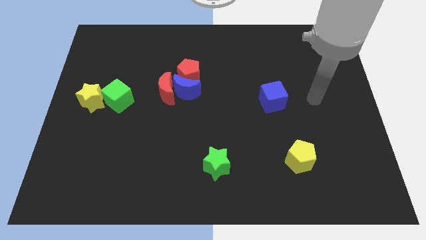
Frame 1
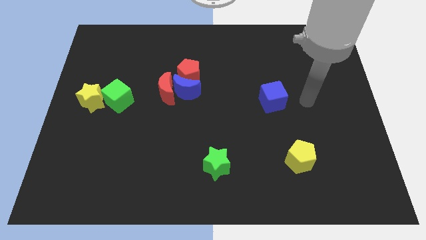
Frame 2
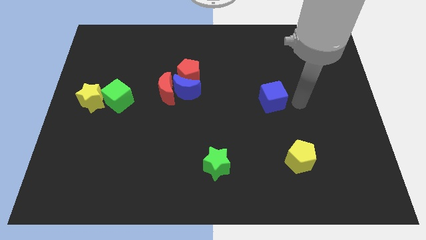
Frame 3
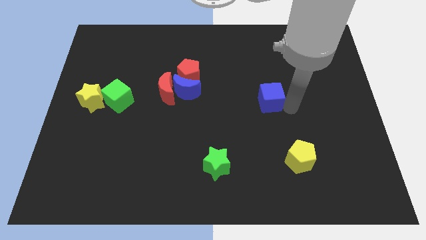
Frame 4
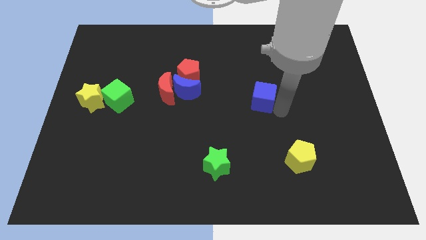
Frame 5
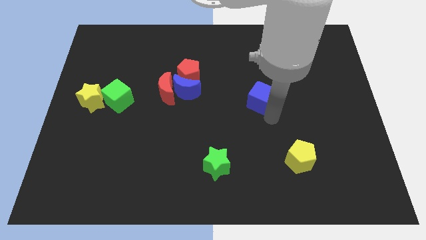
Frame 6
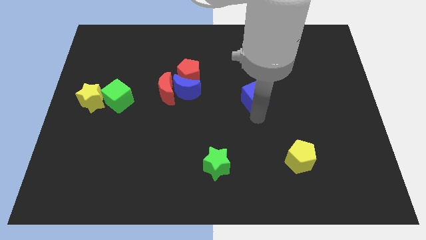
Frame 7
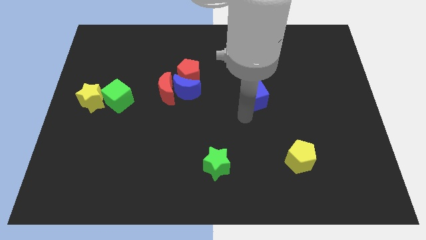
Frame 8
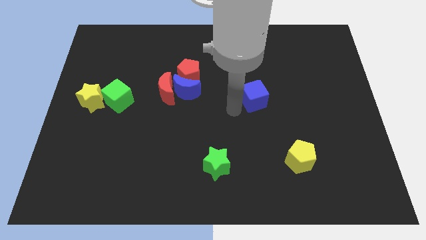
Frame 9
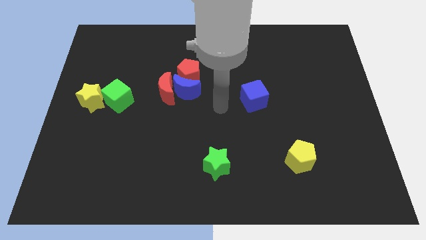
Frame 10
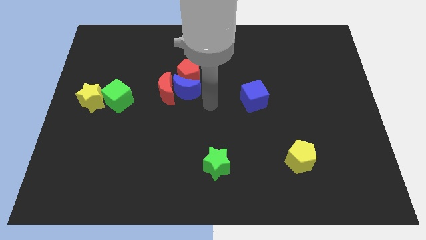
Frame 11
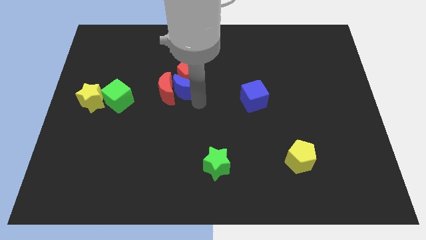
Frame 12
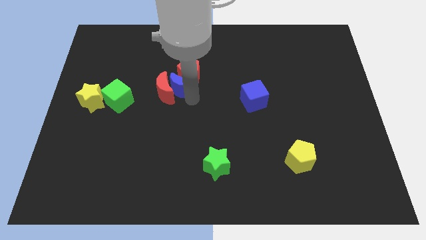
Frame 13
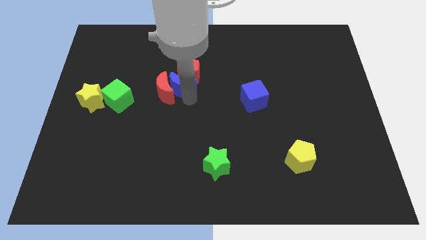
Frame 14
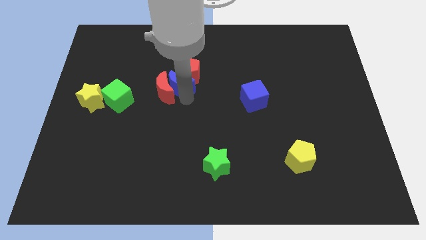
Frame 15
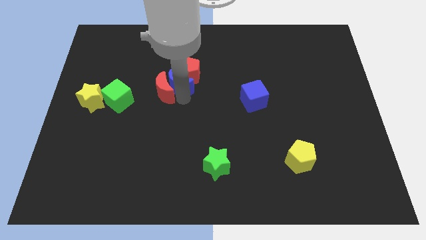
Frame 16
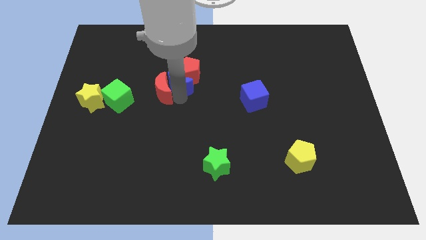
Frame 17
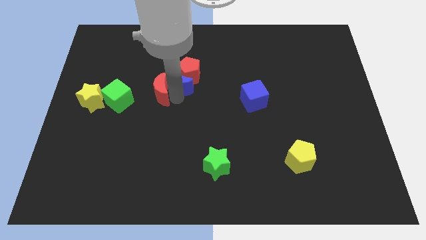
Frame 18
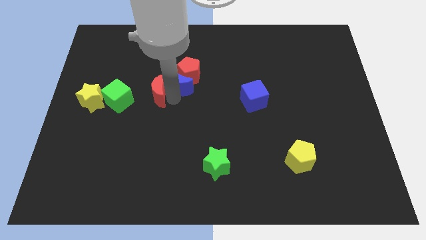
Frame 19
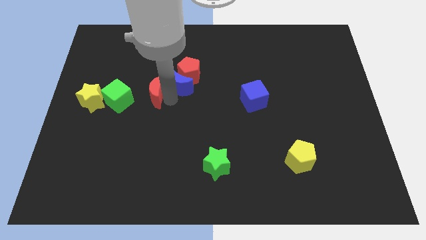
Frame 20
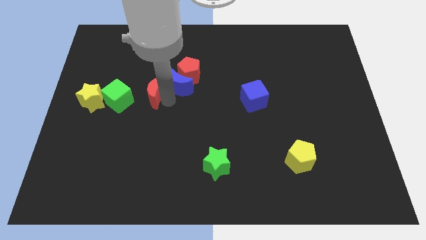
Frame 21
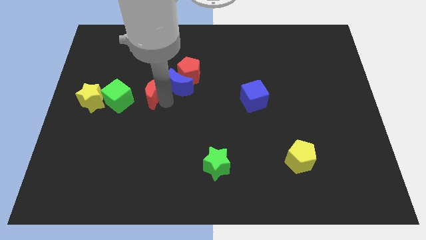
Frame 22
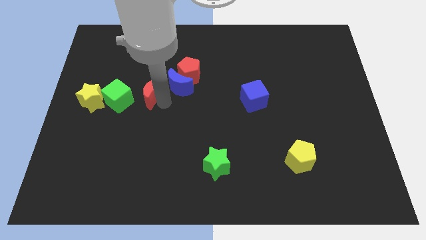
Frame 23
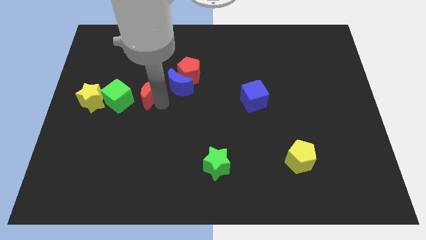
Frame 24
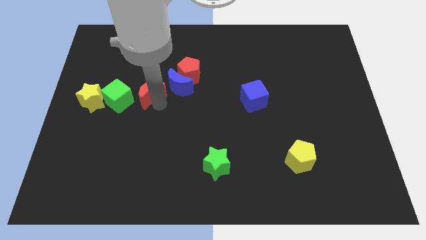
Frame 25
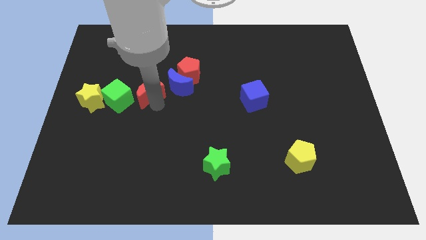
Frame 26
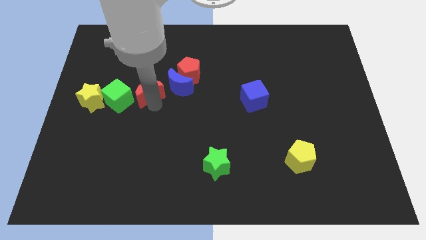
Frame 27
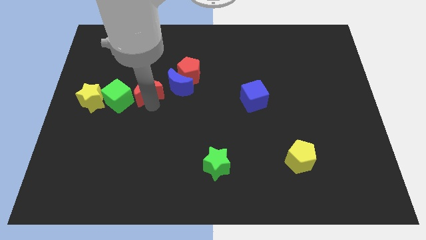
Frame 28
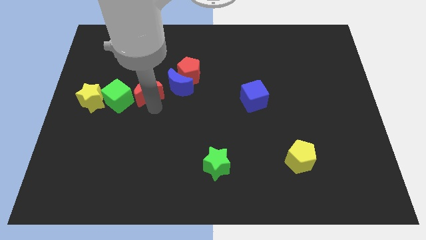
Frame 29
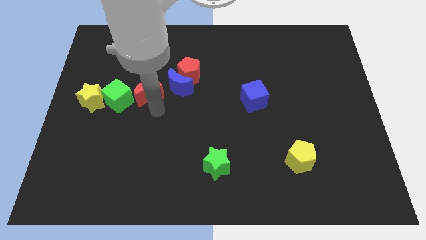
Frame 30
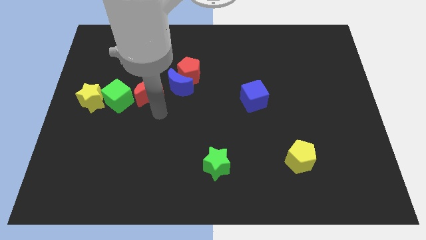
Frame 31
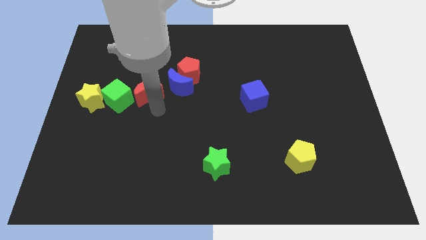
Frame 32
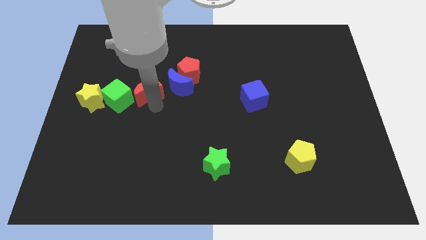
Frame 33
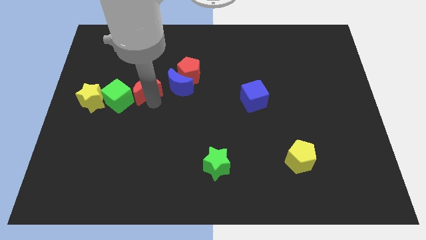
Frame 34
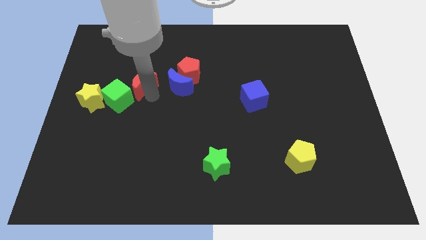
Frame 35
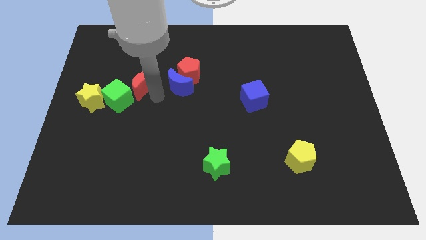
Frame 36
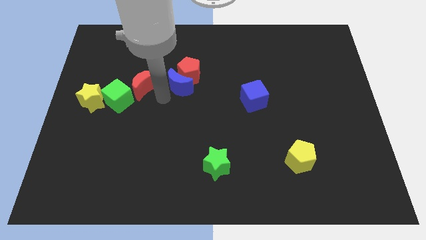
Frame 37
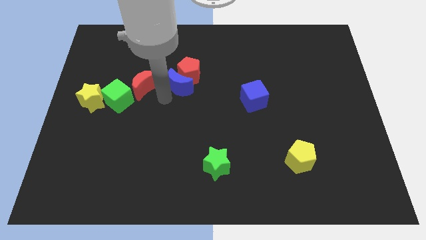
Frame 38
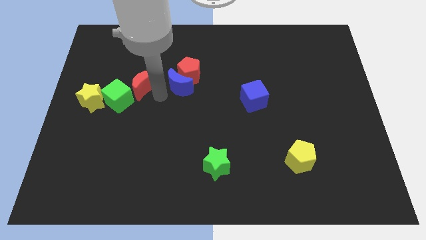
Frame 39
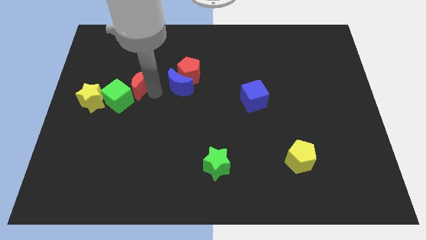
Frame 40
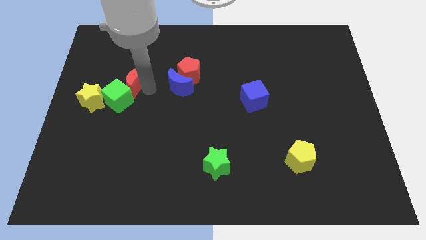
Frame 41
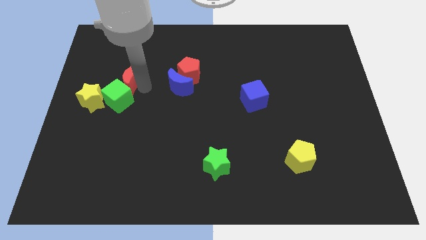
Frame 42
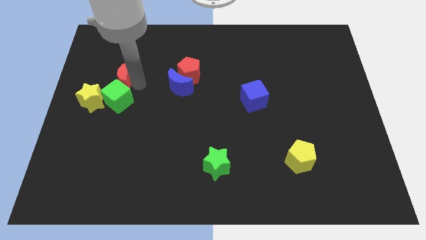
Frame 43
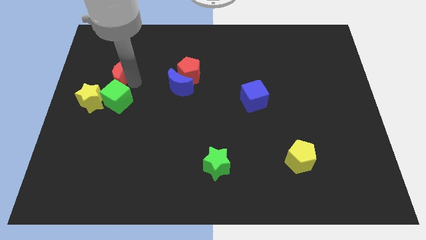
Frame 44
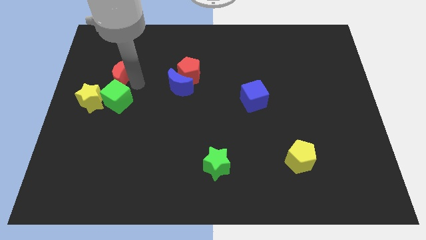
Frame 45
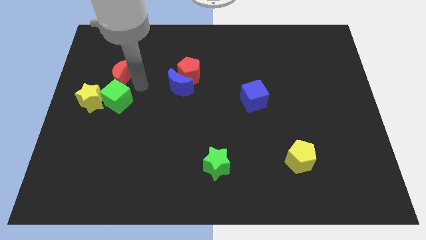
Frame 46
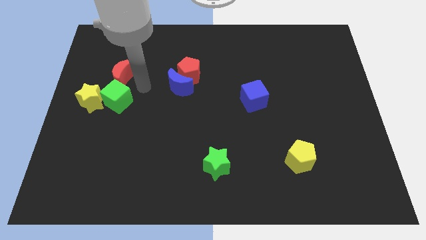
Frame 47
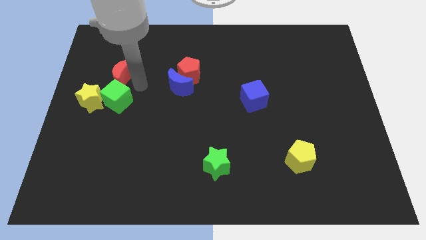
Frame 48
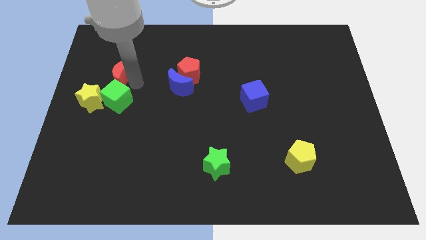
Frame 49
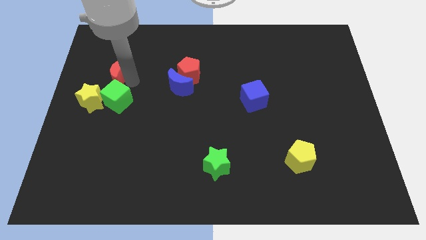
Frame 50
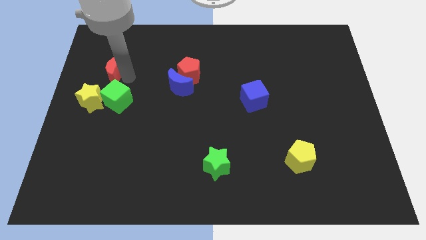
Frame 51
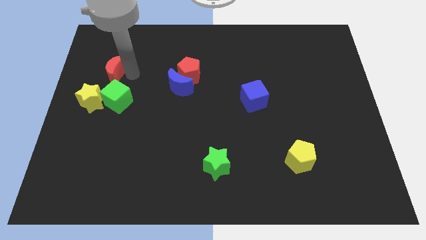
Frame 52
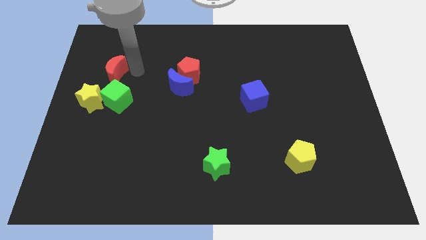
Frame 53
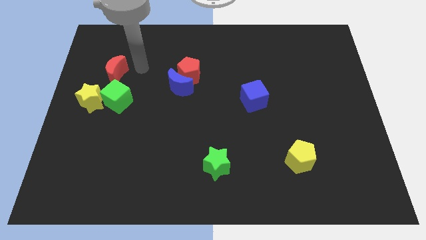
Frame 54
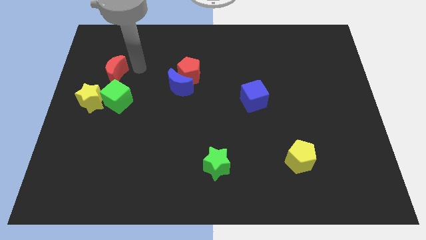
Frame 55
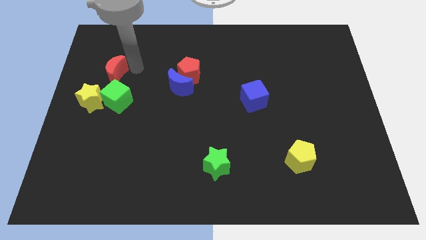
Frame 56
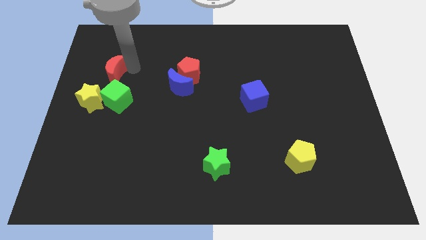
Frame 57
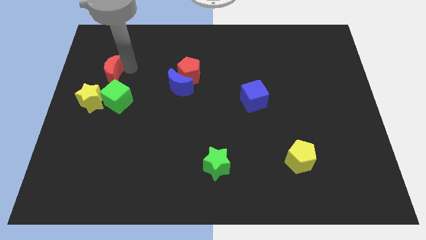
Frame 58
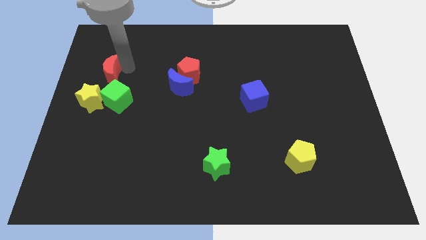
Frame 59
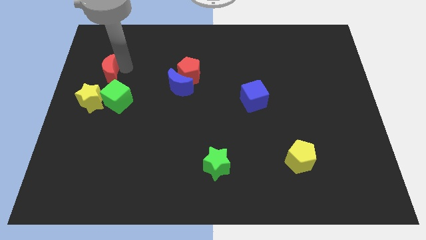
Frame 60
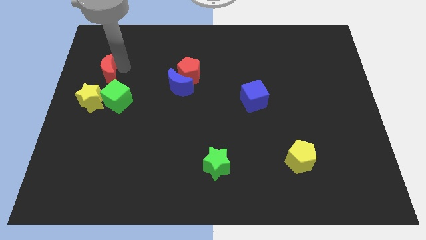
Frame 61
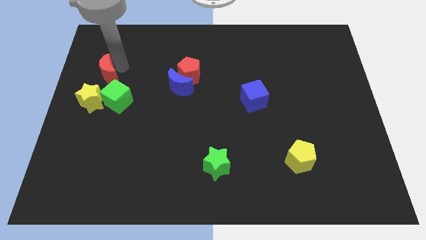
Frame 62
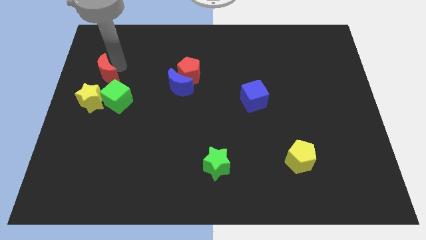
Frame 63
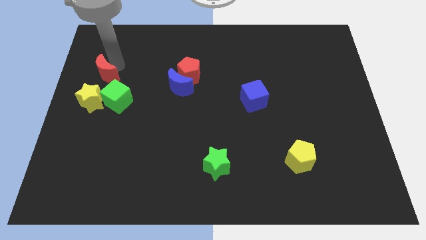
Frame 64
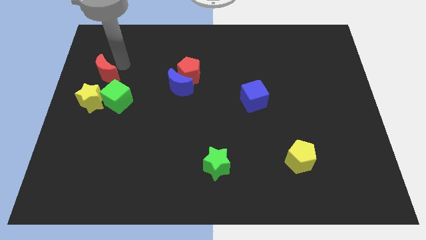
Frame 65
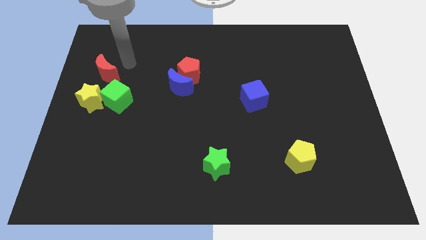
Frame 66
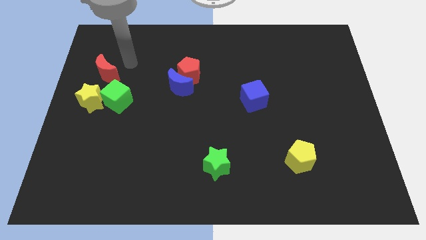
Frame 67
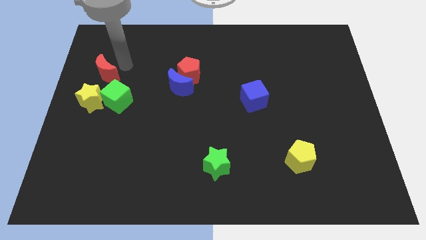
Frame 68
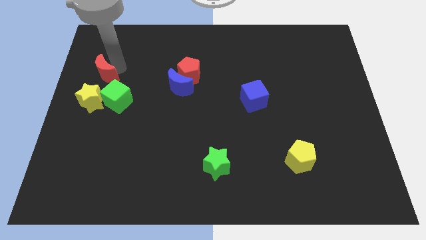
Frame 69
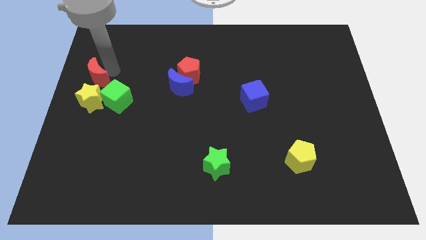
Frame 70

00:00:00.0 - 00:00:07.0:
push the red moon to the left side
